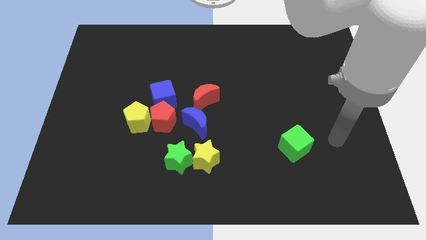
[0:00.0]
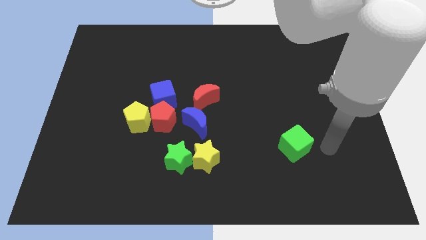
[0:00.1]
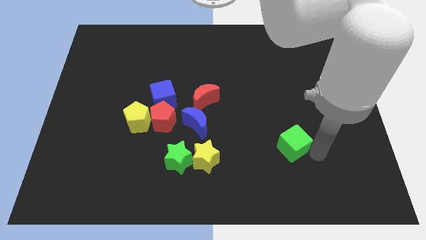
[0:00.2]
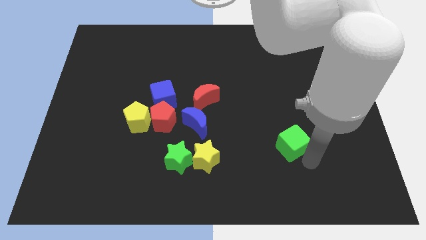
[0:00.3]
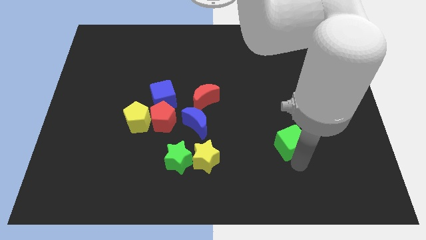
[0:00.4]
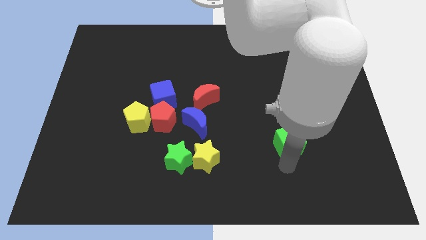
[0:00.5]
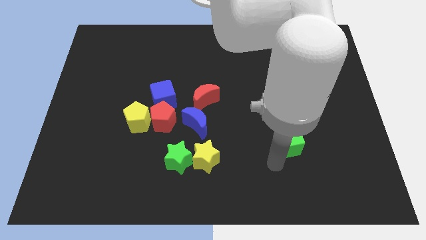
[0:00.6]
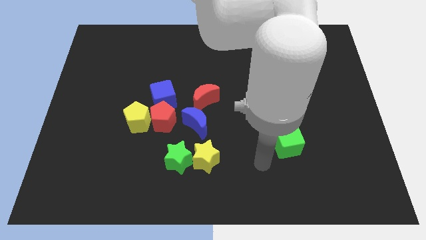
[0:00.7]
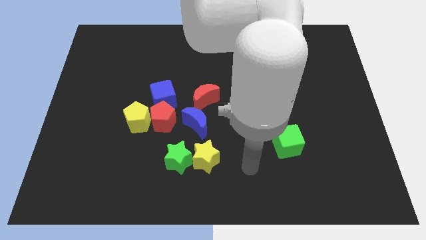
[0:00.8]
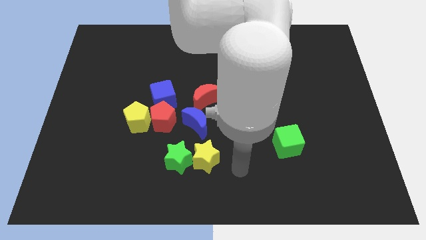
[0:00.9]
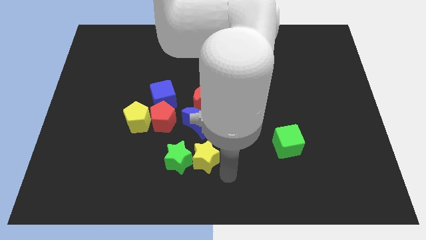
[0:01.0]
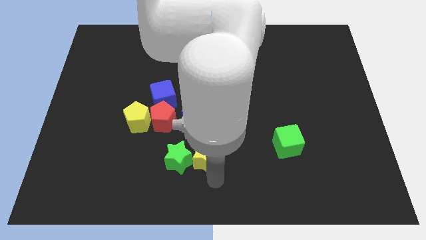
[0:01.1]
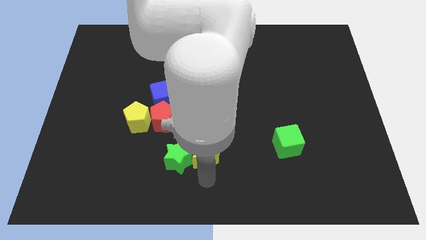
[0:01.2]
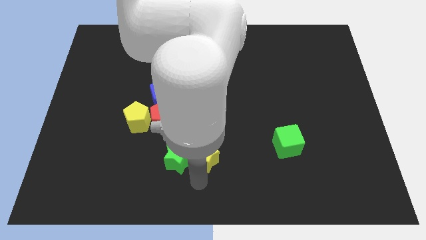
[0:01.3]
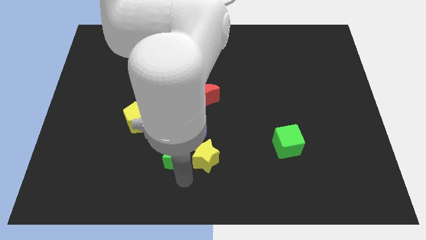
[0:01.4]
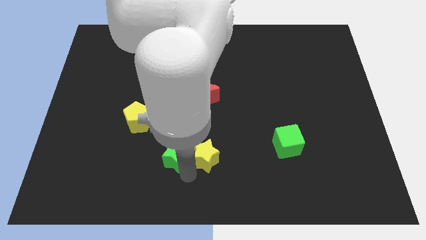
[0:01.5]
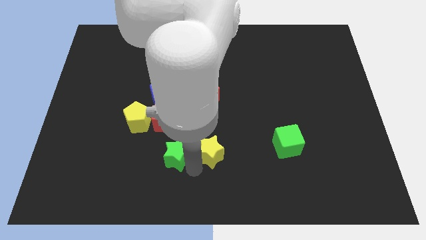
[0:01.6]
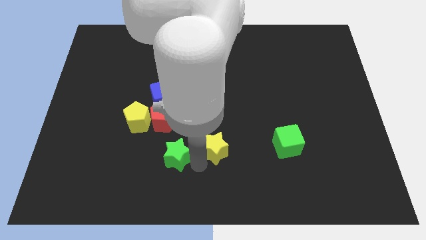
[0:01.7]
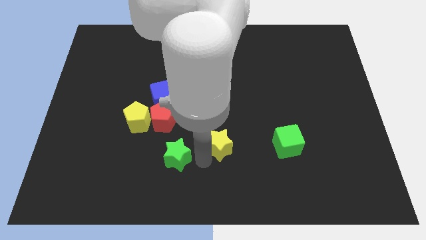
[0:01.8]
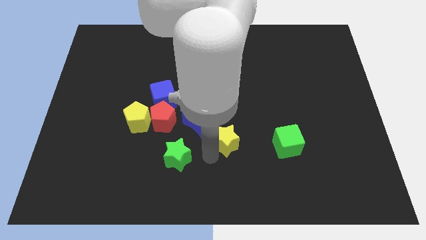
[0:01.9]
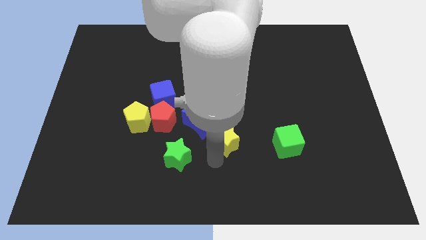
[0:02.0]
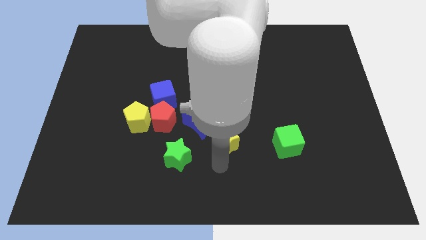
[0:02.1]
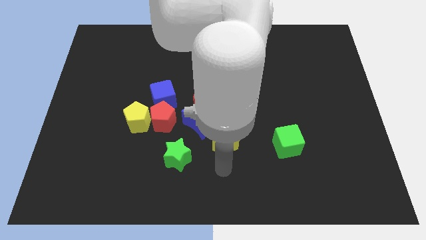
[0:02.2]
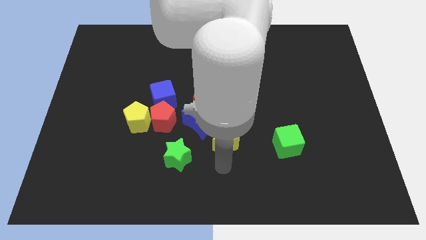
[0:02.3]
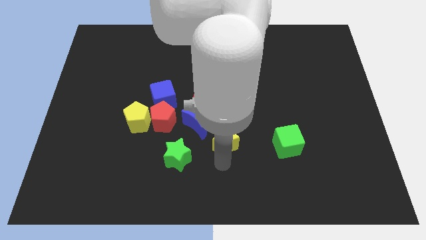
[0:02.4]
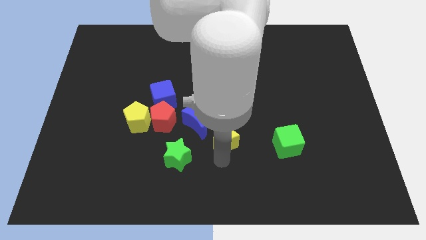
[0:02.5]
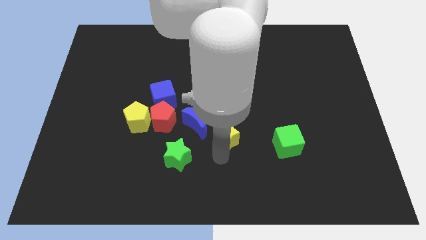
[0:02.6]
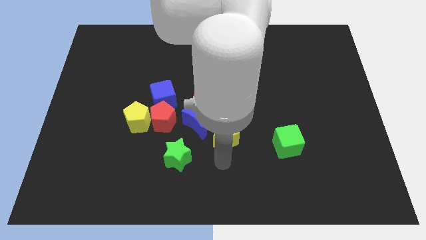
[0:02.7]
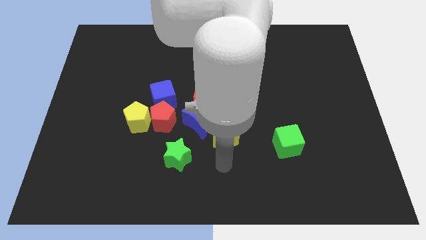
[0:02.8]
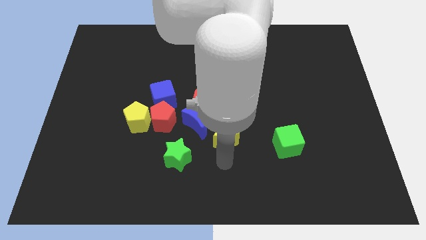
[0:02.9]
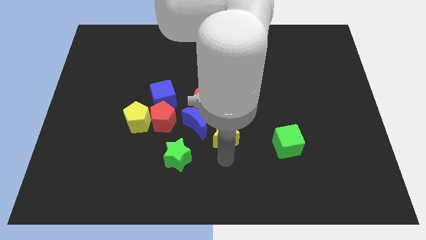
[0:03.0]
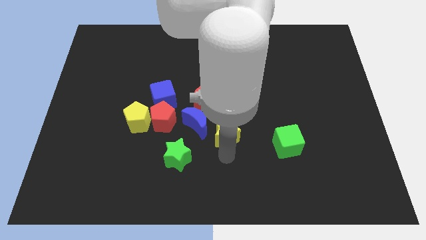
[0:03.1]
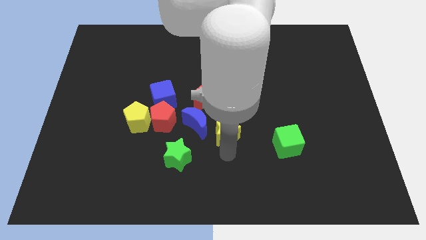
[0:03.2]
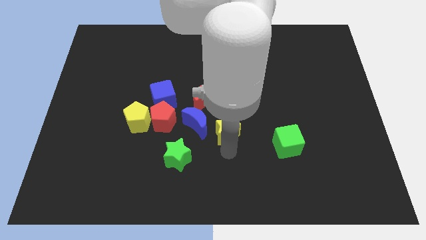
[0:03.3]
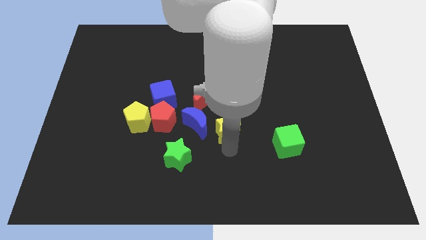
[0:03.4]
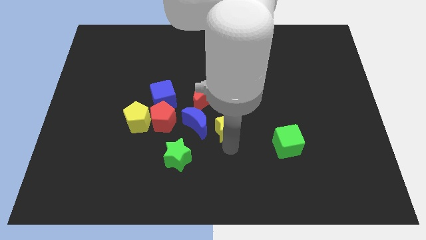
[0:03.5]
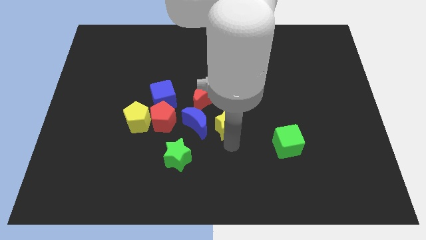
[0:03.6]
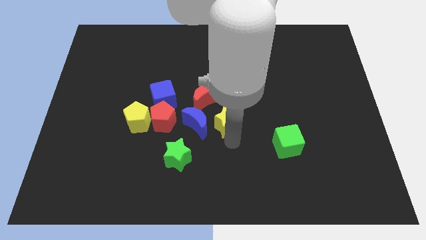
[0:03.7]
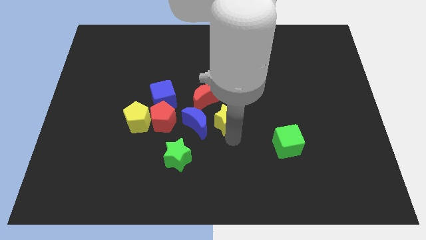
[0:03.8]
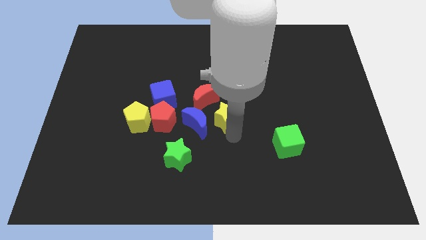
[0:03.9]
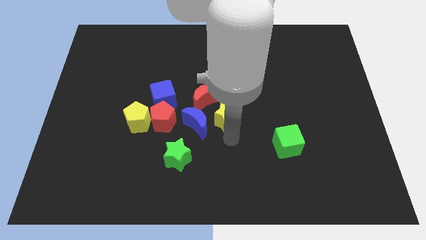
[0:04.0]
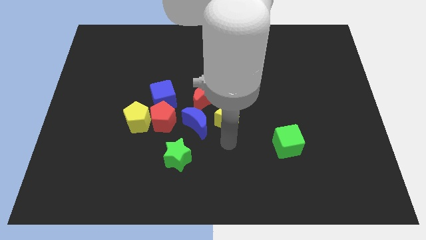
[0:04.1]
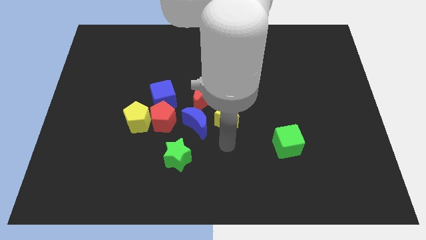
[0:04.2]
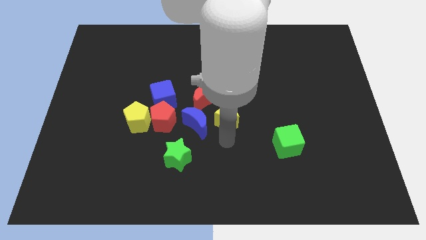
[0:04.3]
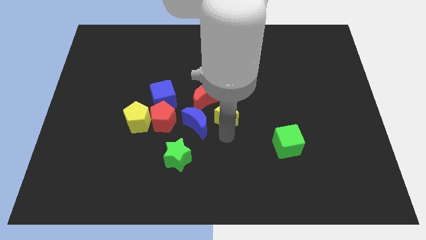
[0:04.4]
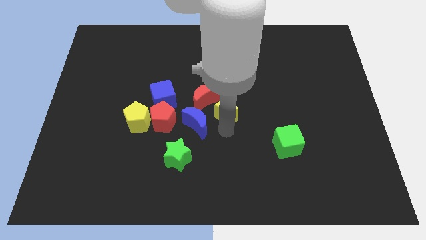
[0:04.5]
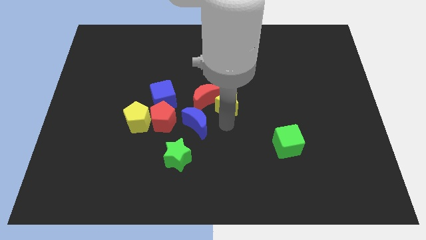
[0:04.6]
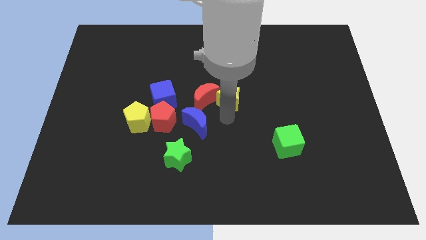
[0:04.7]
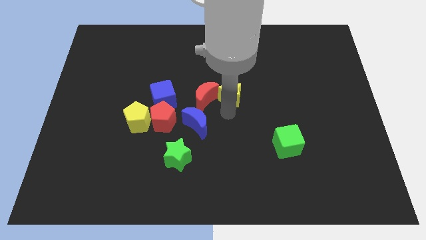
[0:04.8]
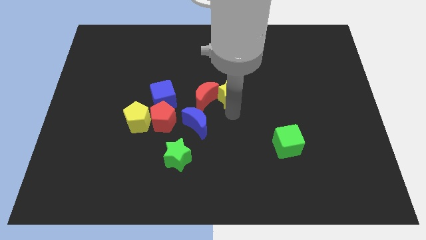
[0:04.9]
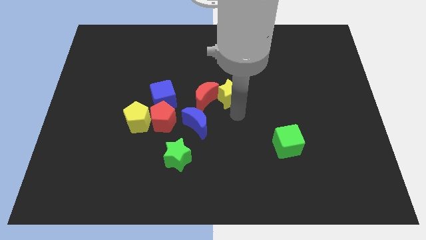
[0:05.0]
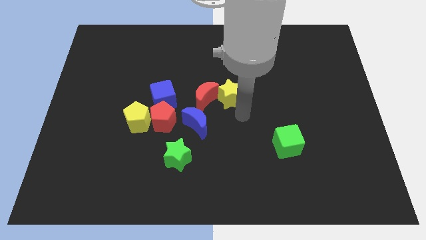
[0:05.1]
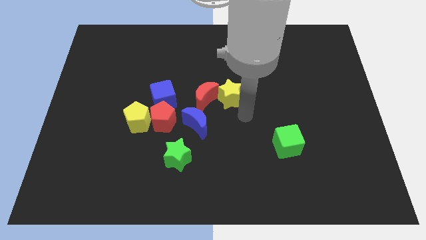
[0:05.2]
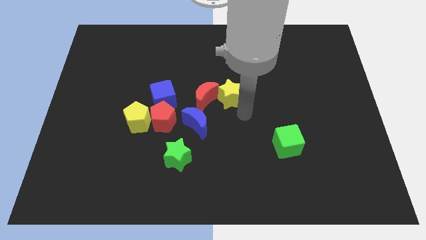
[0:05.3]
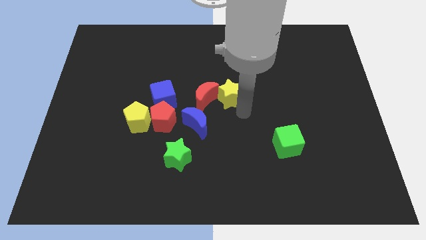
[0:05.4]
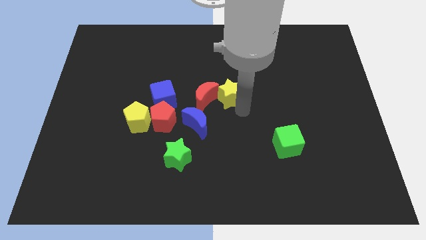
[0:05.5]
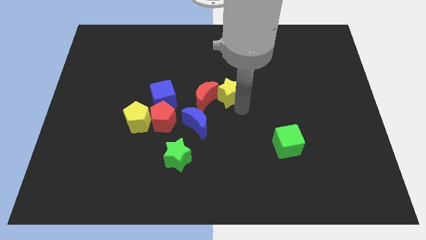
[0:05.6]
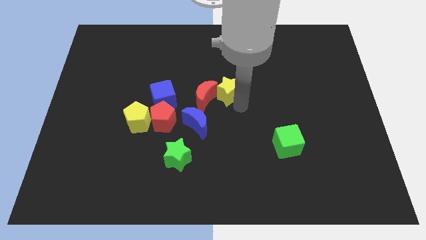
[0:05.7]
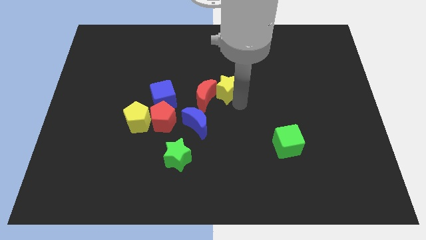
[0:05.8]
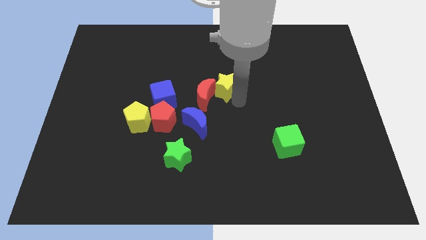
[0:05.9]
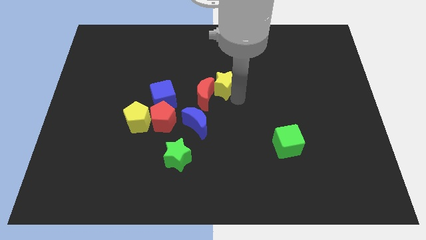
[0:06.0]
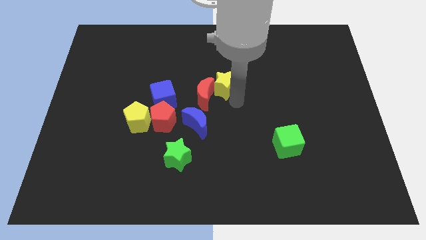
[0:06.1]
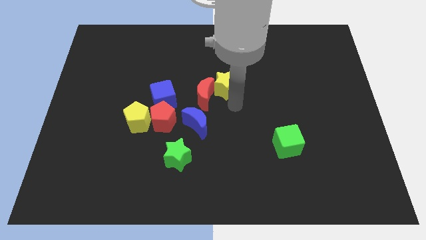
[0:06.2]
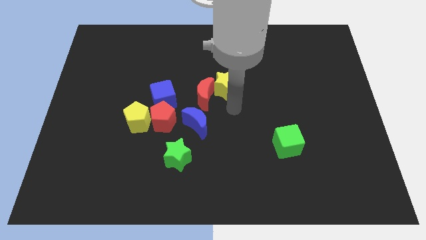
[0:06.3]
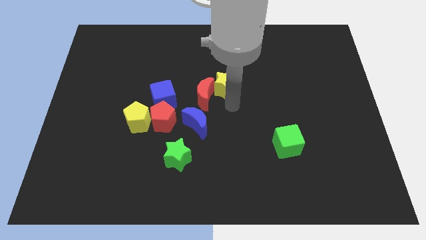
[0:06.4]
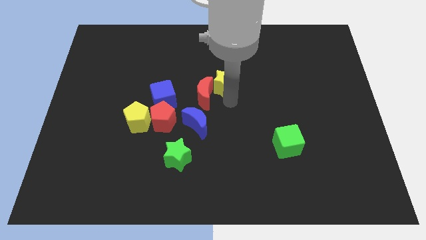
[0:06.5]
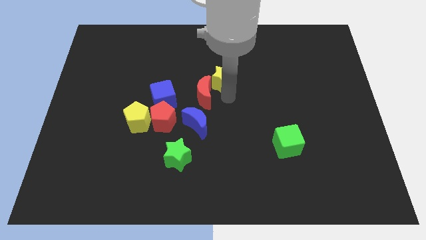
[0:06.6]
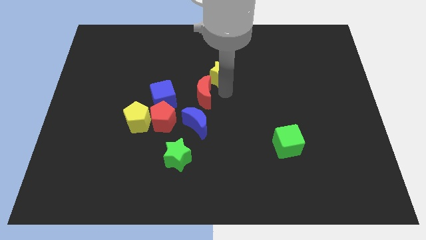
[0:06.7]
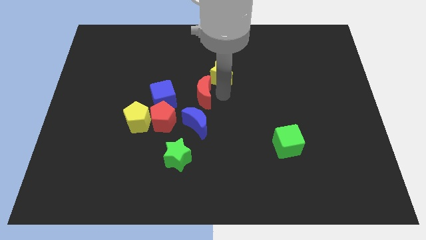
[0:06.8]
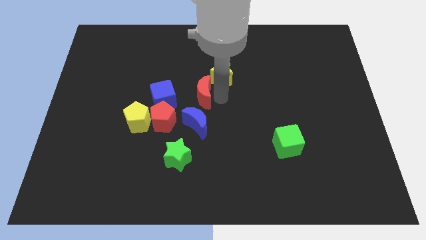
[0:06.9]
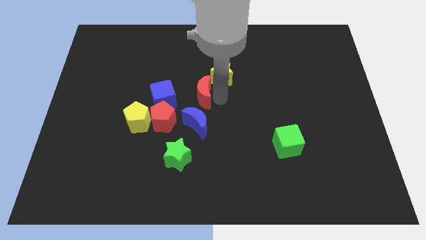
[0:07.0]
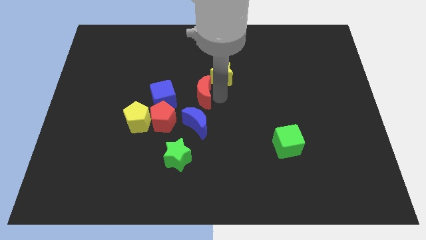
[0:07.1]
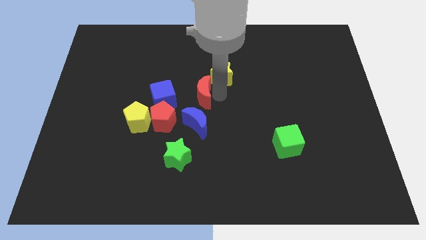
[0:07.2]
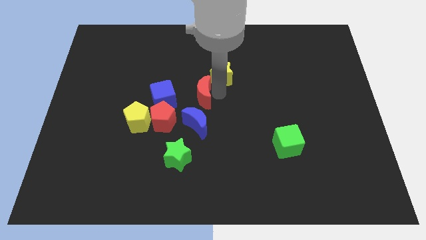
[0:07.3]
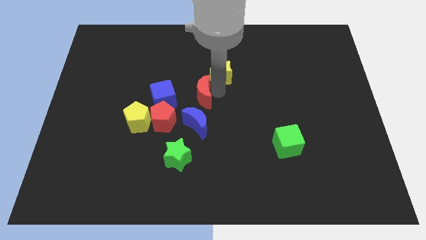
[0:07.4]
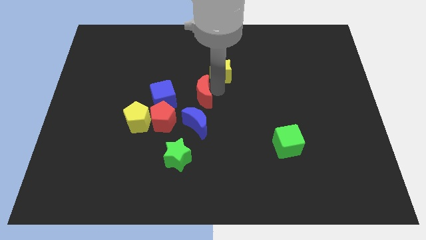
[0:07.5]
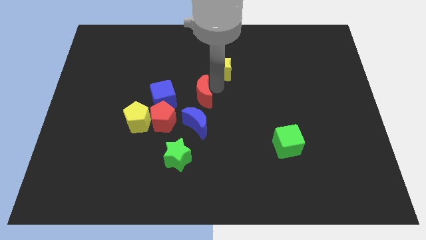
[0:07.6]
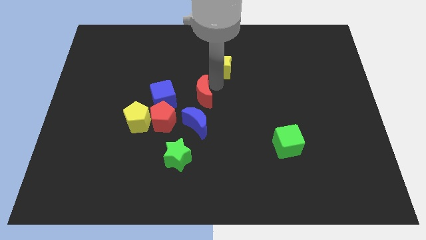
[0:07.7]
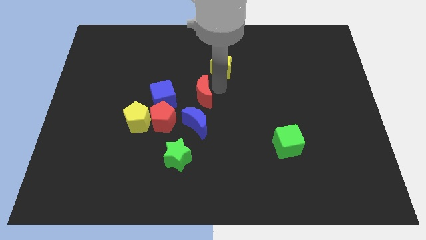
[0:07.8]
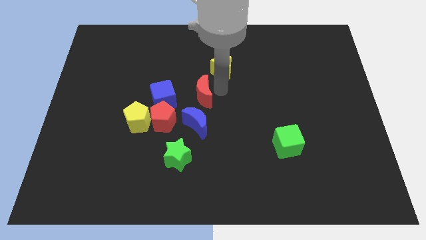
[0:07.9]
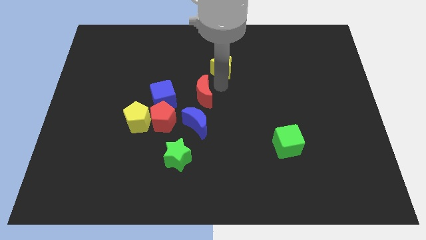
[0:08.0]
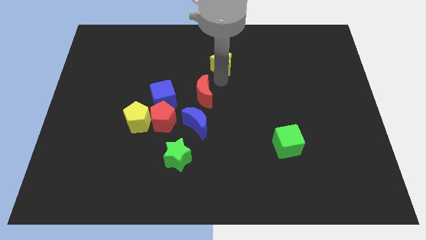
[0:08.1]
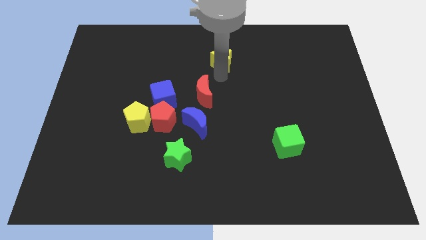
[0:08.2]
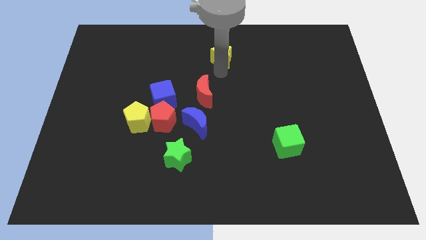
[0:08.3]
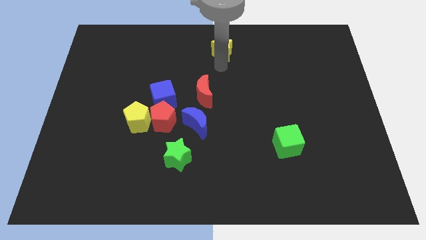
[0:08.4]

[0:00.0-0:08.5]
slide the yellow star to the top
